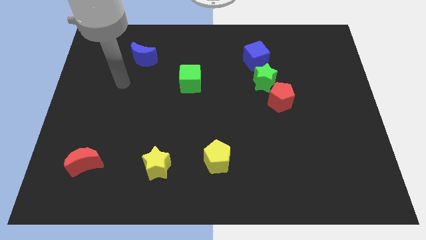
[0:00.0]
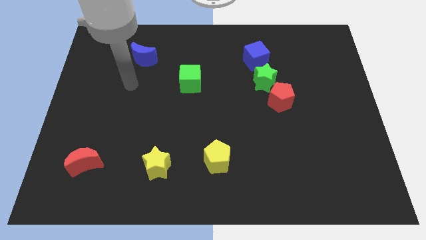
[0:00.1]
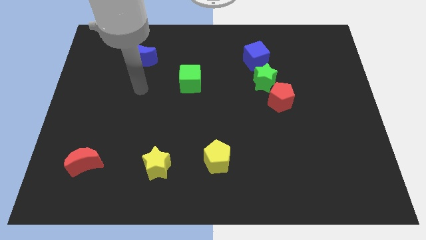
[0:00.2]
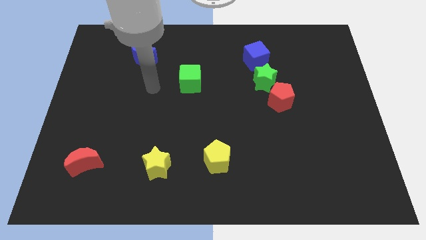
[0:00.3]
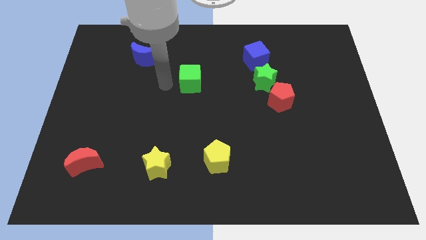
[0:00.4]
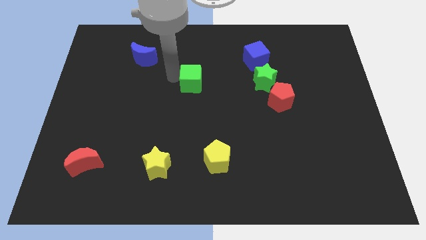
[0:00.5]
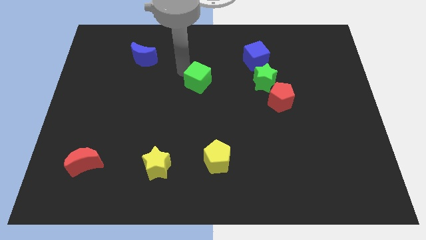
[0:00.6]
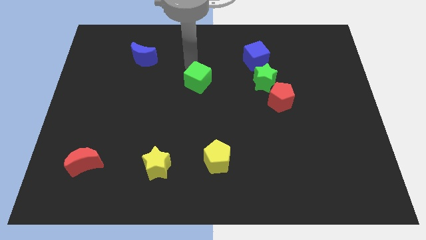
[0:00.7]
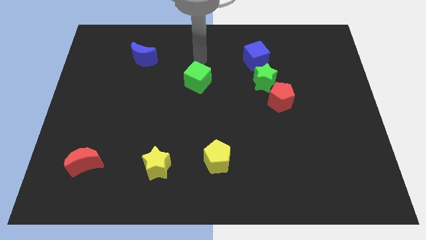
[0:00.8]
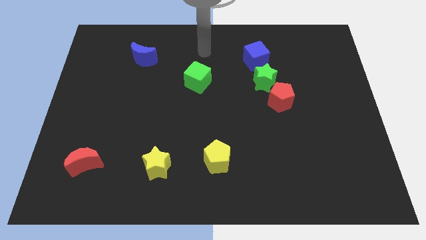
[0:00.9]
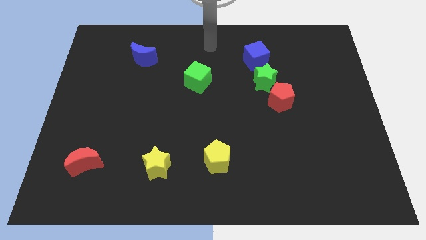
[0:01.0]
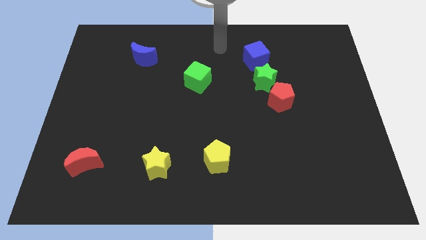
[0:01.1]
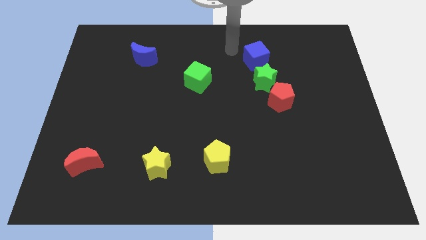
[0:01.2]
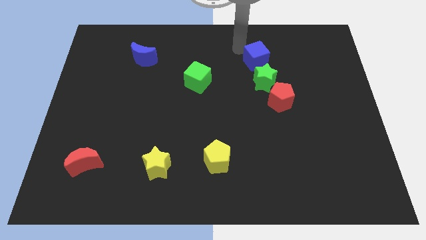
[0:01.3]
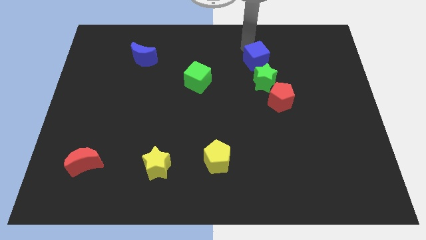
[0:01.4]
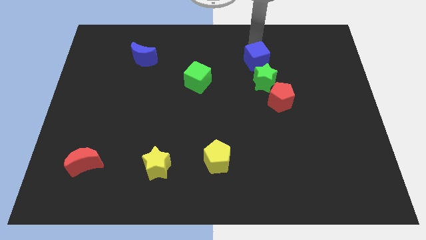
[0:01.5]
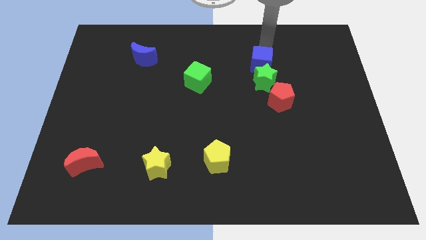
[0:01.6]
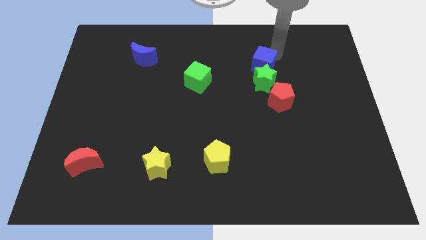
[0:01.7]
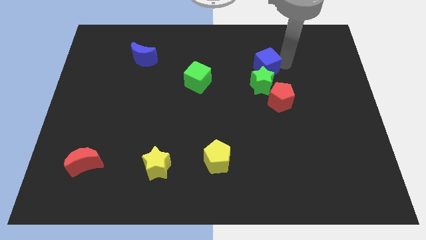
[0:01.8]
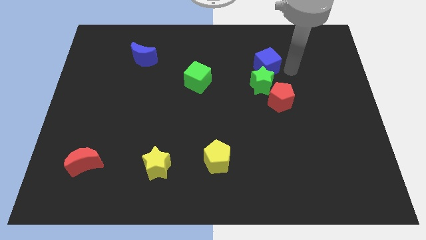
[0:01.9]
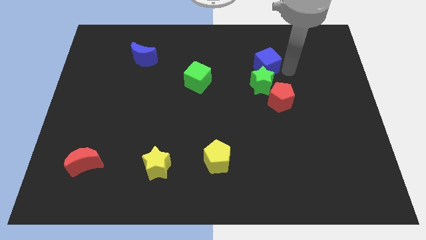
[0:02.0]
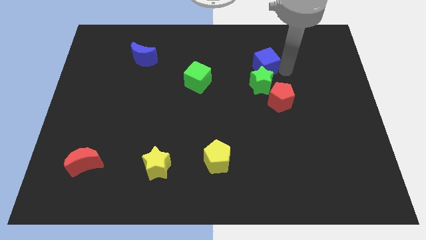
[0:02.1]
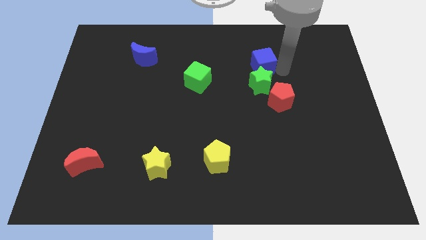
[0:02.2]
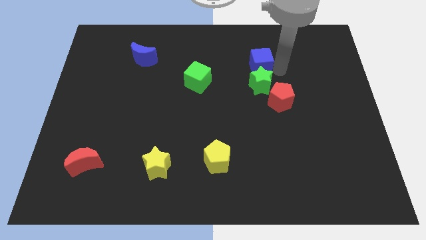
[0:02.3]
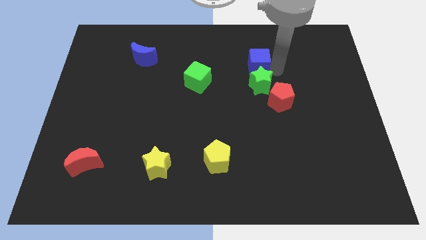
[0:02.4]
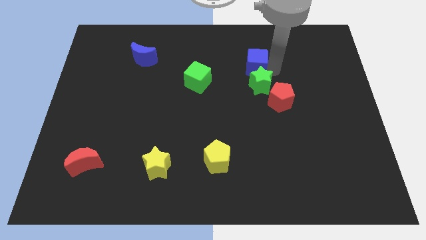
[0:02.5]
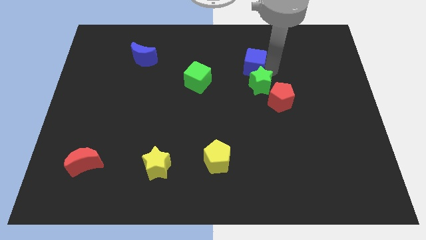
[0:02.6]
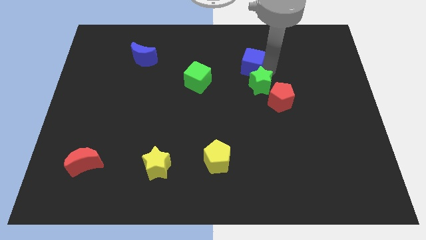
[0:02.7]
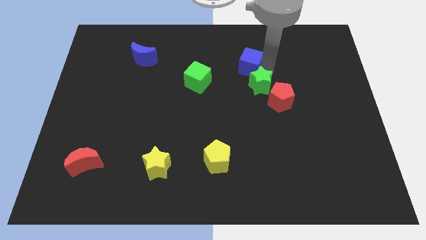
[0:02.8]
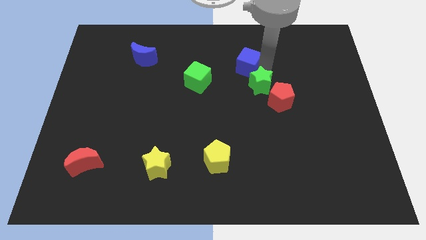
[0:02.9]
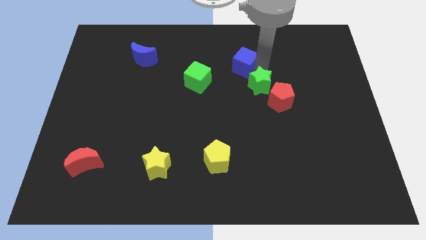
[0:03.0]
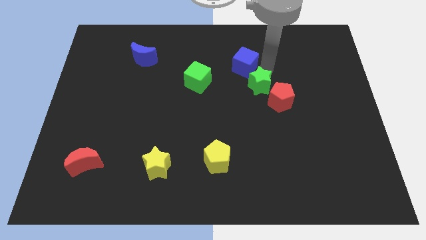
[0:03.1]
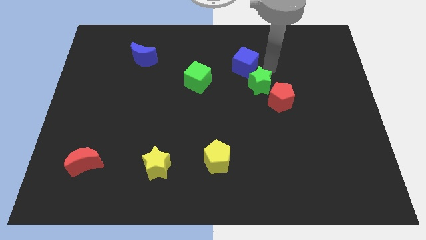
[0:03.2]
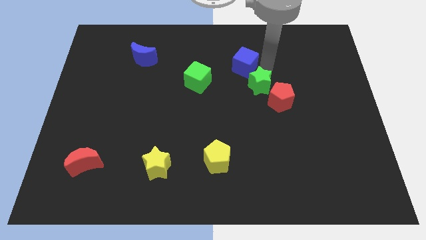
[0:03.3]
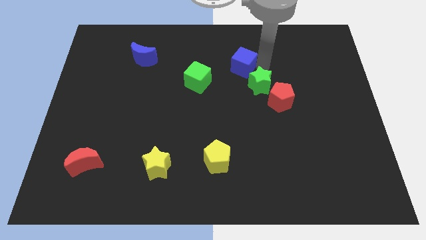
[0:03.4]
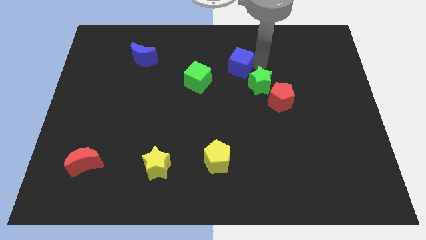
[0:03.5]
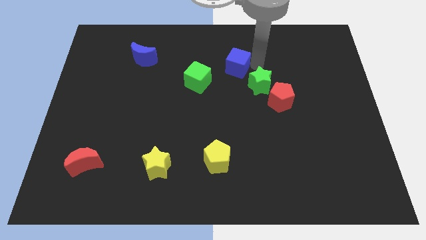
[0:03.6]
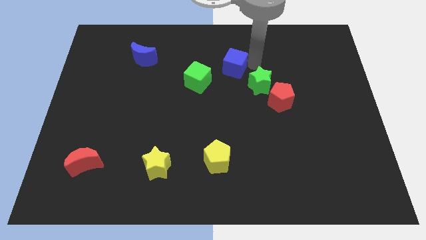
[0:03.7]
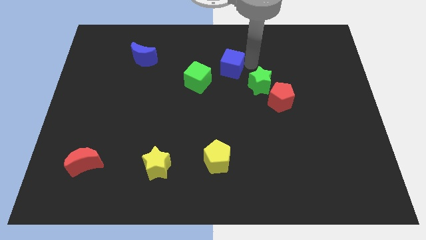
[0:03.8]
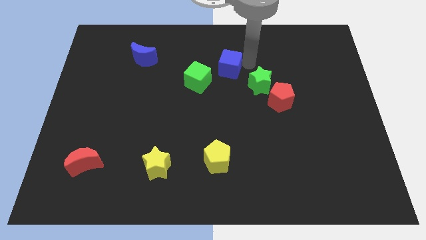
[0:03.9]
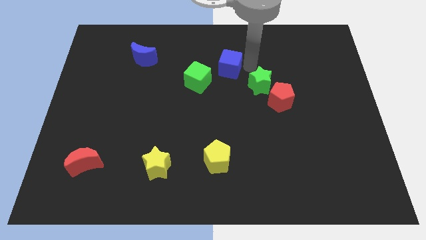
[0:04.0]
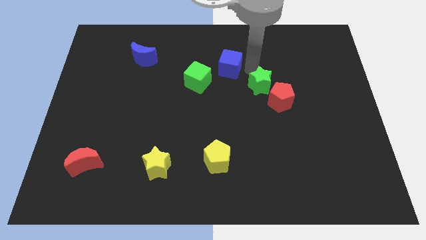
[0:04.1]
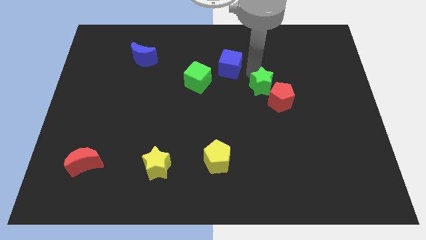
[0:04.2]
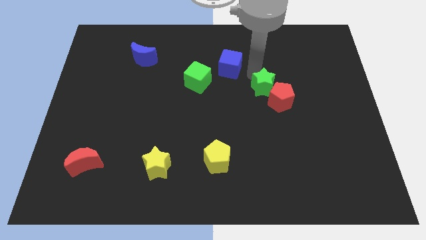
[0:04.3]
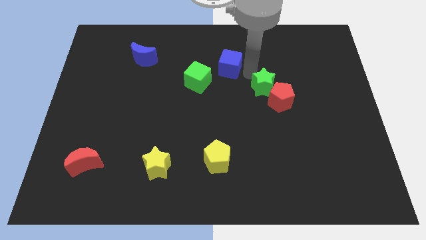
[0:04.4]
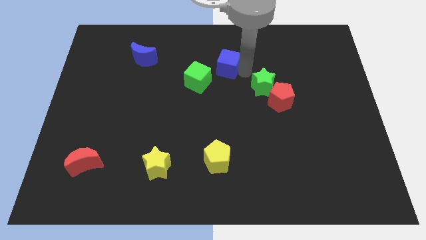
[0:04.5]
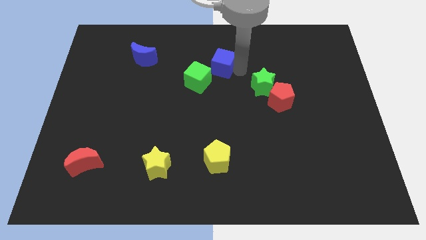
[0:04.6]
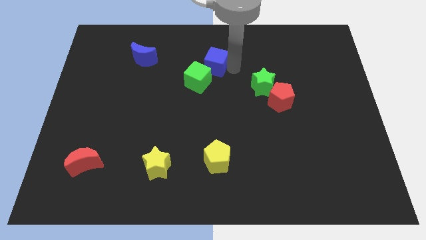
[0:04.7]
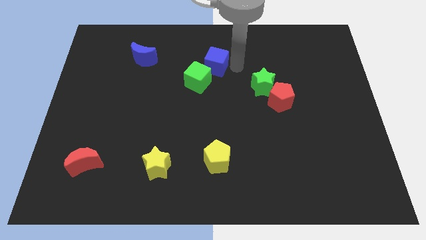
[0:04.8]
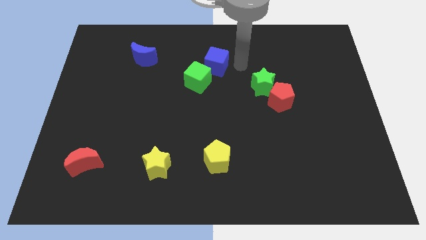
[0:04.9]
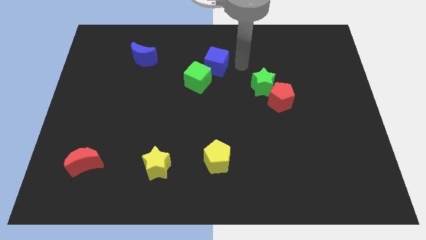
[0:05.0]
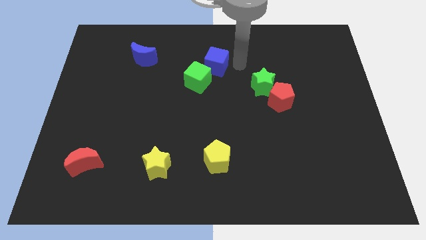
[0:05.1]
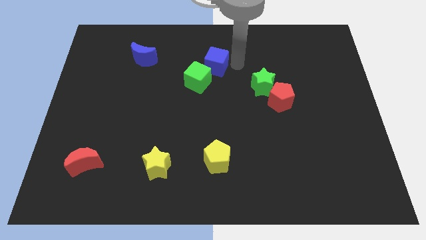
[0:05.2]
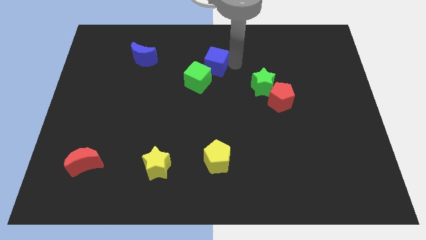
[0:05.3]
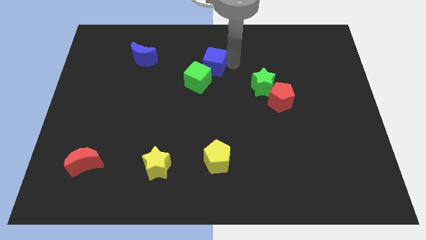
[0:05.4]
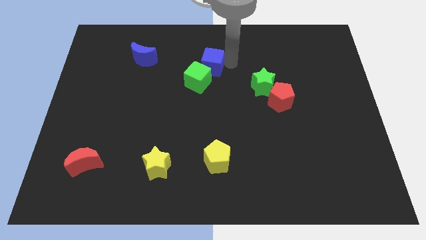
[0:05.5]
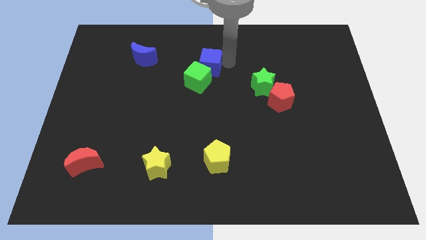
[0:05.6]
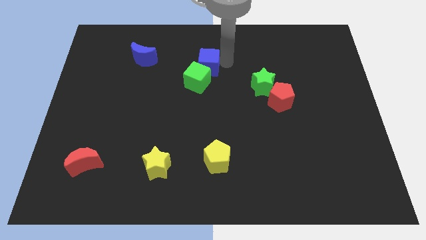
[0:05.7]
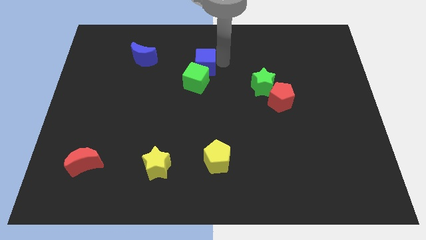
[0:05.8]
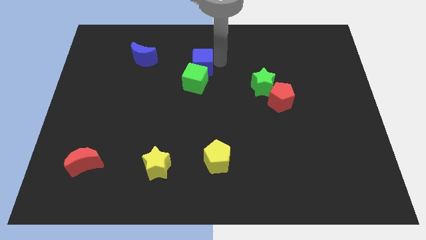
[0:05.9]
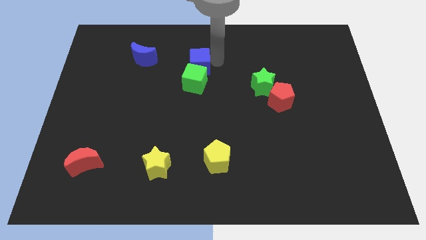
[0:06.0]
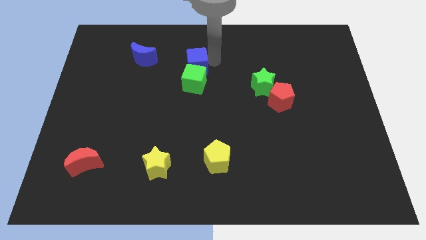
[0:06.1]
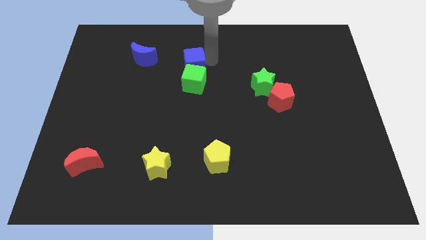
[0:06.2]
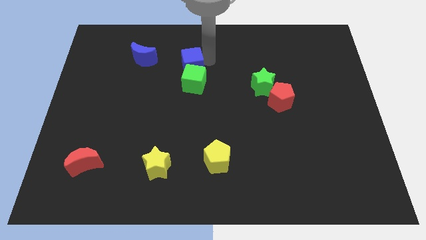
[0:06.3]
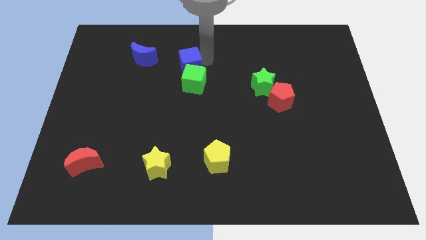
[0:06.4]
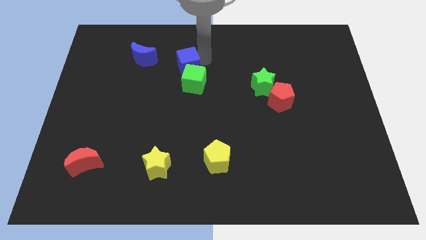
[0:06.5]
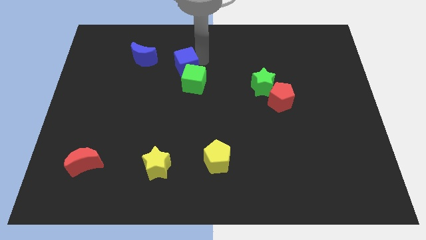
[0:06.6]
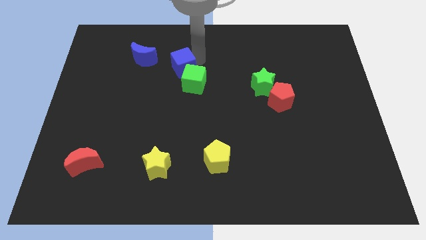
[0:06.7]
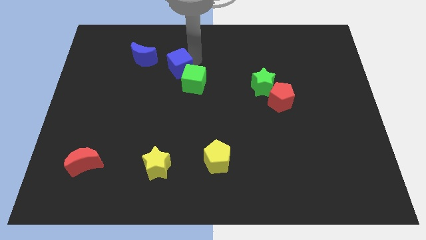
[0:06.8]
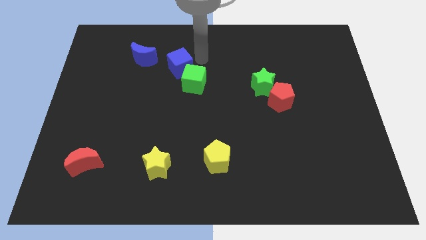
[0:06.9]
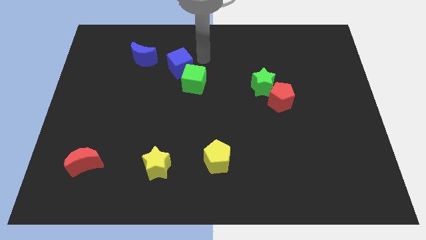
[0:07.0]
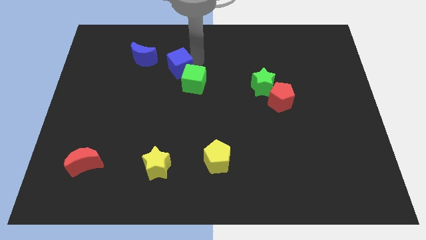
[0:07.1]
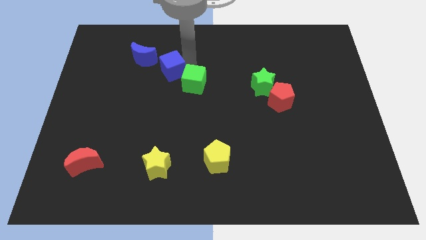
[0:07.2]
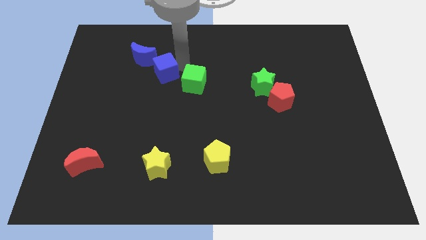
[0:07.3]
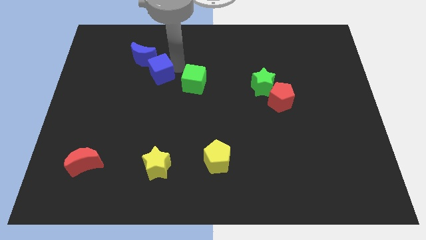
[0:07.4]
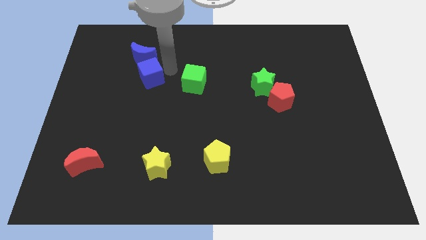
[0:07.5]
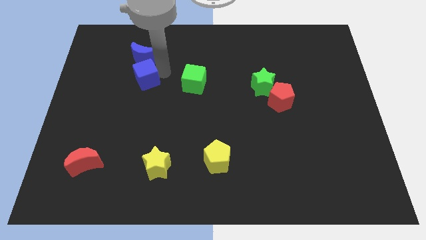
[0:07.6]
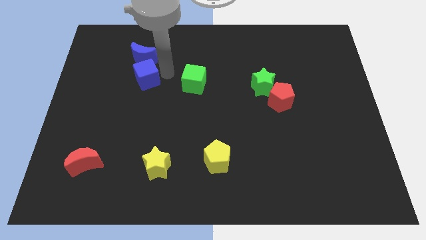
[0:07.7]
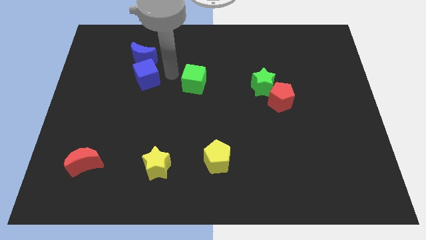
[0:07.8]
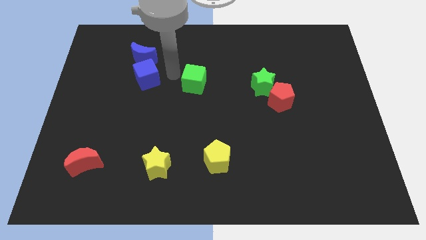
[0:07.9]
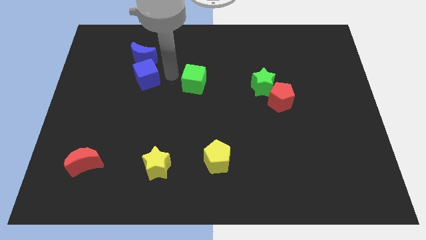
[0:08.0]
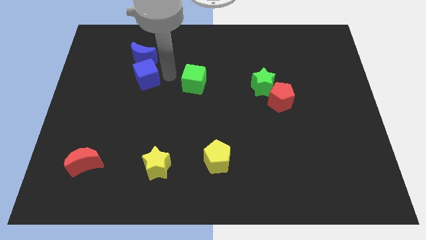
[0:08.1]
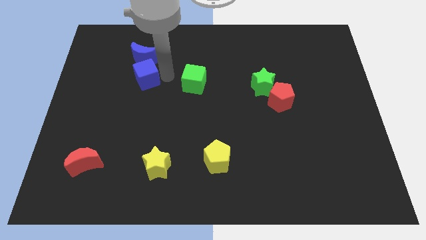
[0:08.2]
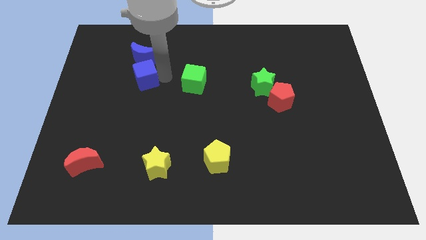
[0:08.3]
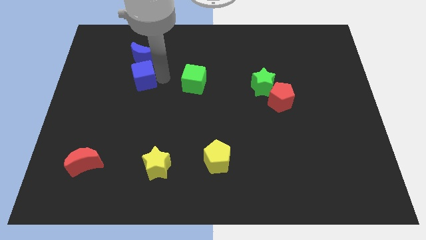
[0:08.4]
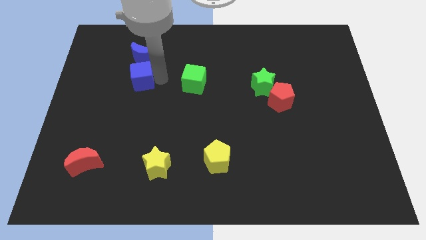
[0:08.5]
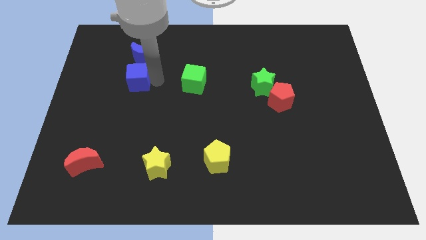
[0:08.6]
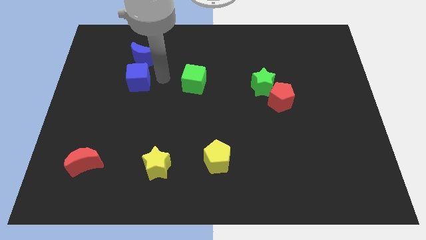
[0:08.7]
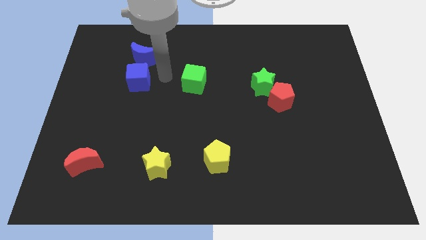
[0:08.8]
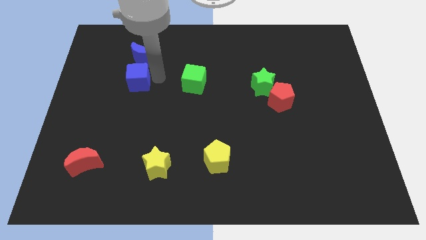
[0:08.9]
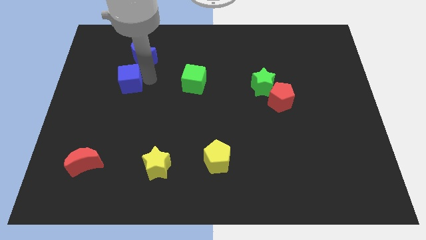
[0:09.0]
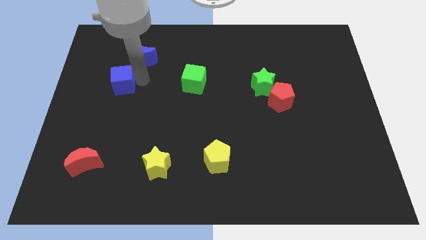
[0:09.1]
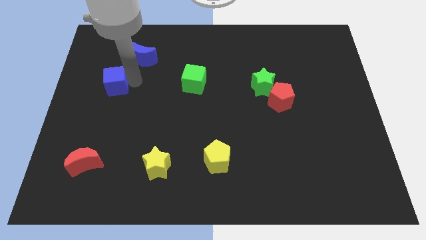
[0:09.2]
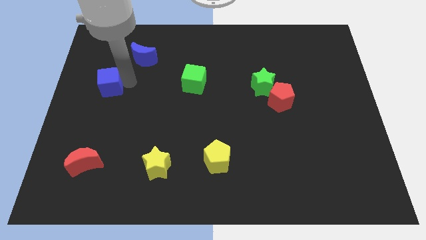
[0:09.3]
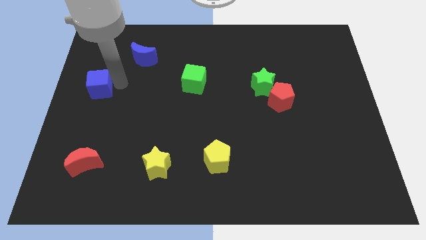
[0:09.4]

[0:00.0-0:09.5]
move the blue cube to the left side of the board
